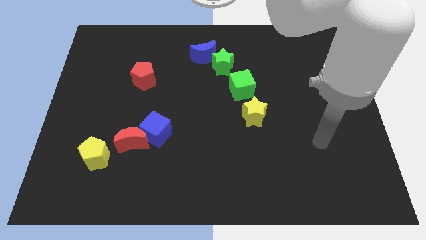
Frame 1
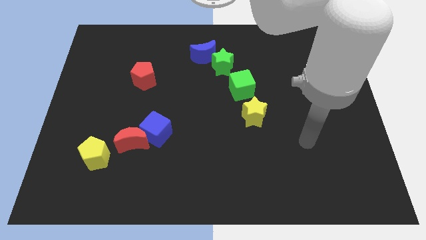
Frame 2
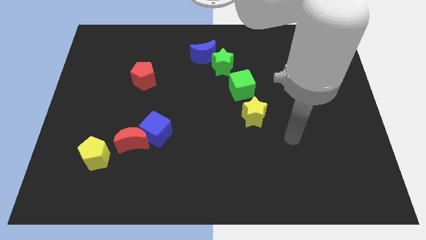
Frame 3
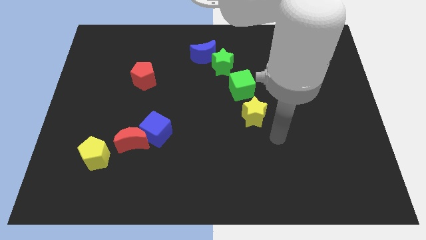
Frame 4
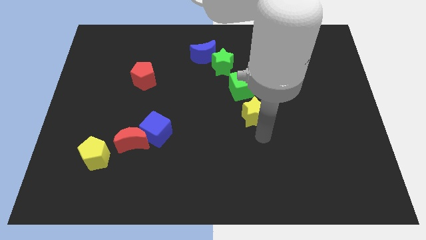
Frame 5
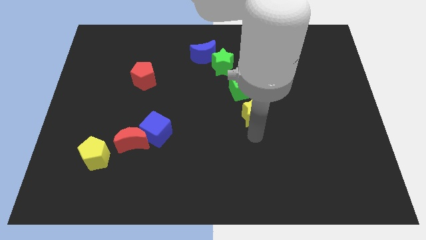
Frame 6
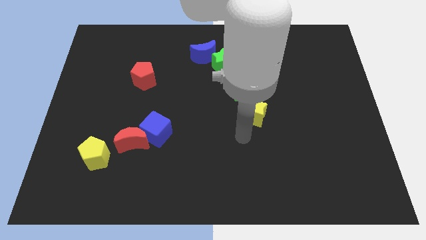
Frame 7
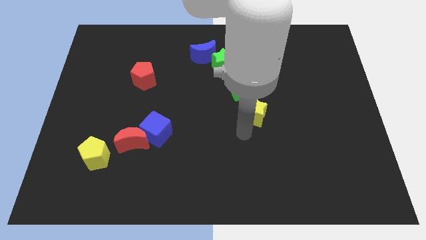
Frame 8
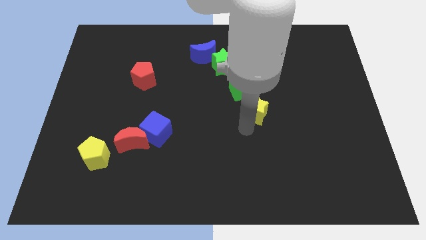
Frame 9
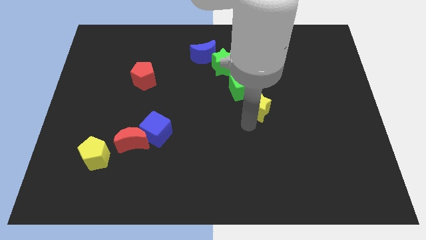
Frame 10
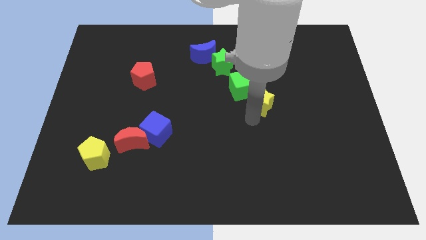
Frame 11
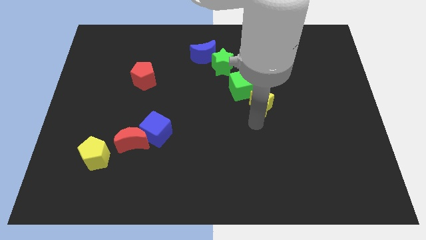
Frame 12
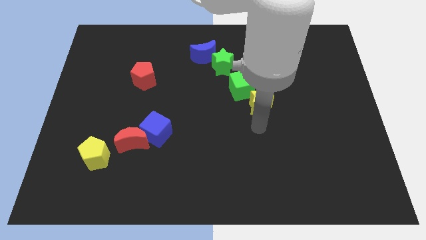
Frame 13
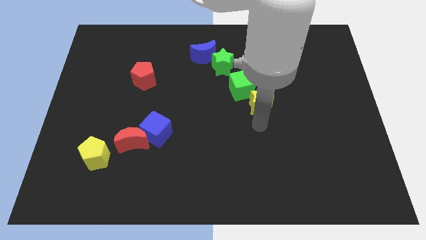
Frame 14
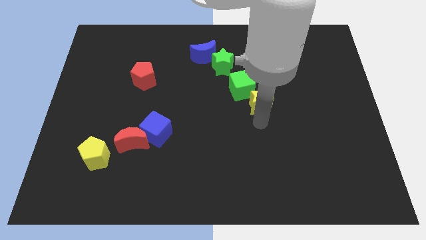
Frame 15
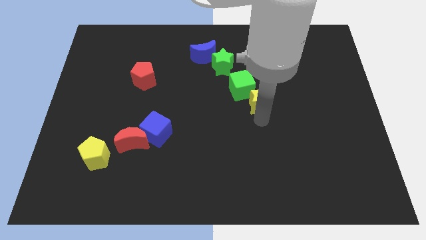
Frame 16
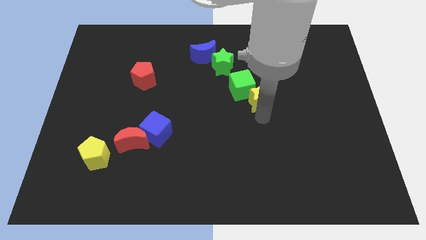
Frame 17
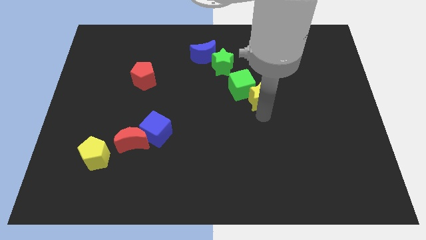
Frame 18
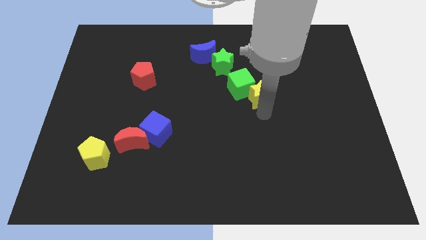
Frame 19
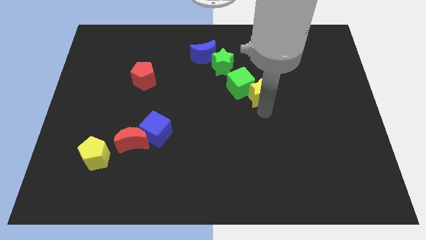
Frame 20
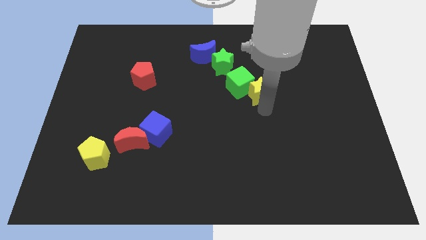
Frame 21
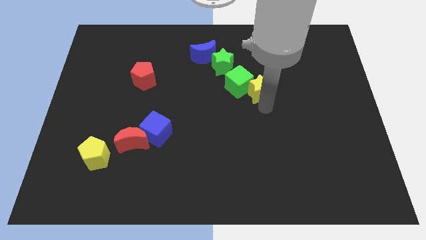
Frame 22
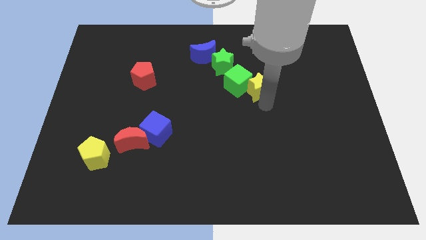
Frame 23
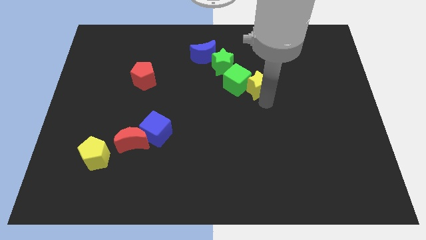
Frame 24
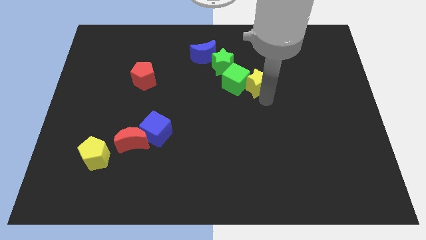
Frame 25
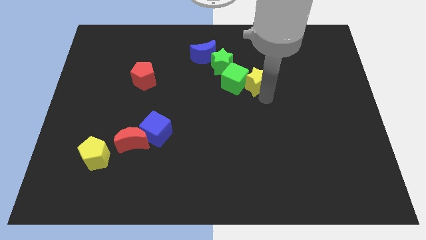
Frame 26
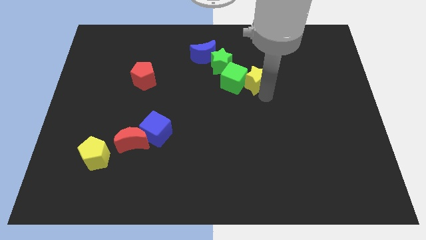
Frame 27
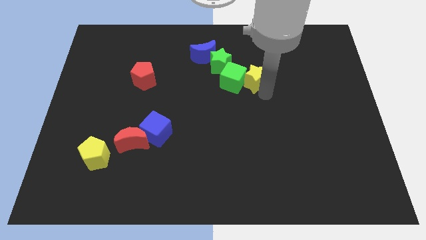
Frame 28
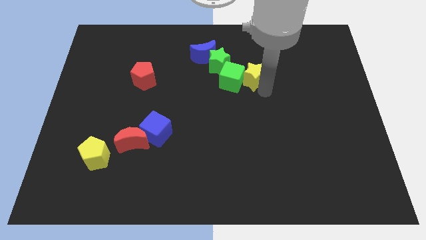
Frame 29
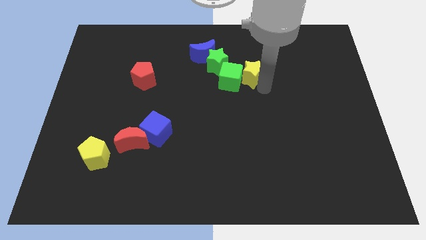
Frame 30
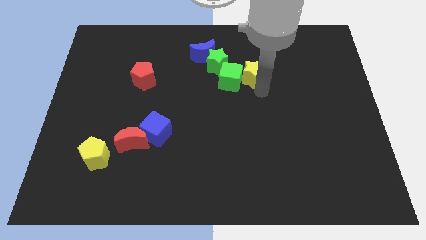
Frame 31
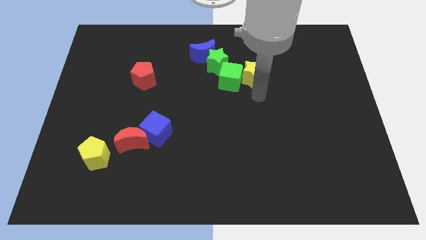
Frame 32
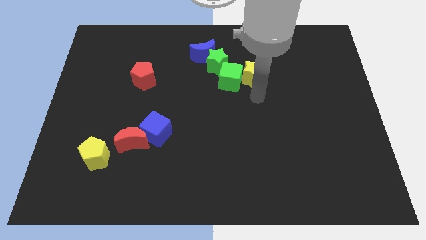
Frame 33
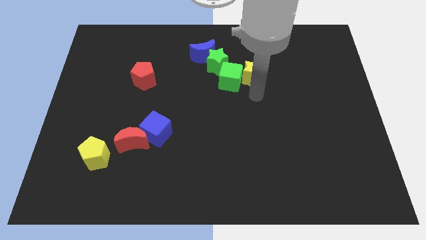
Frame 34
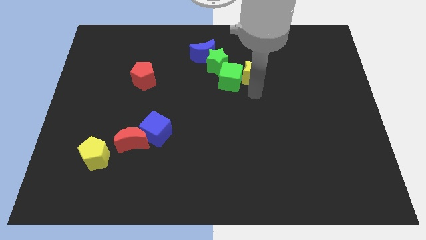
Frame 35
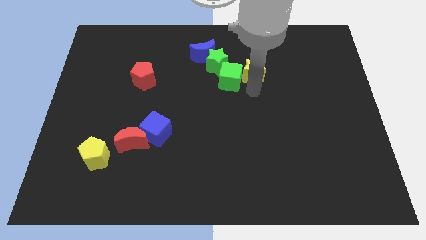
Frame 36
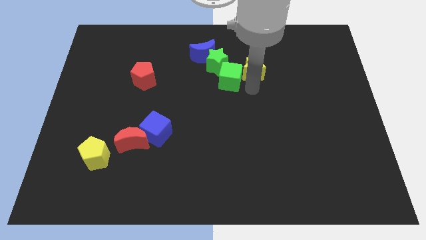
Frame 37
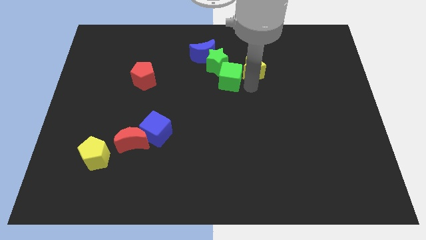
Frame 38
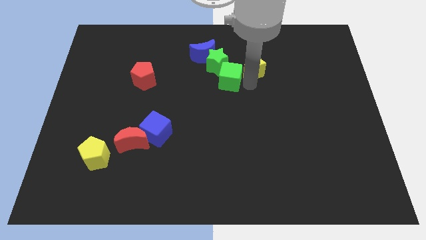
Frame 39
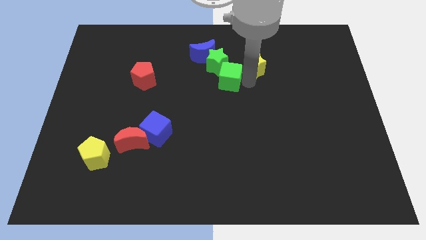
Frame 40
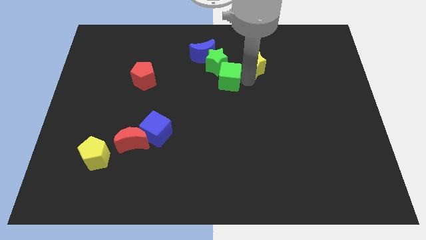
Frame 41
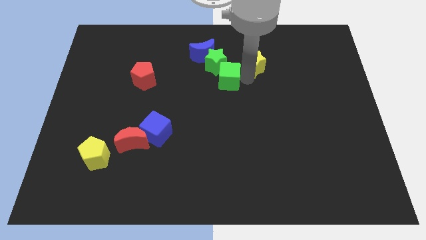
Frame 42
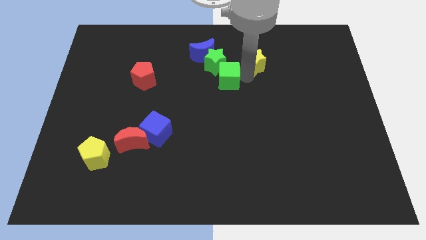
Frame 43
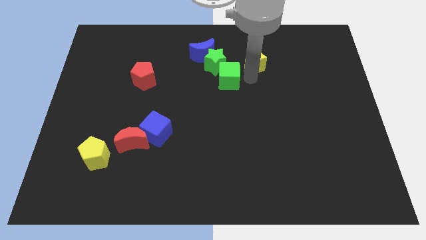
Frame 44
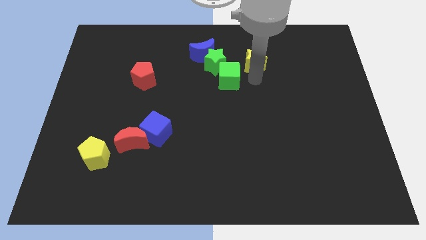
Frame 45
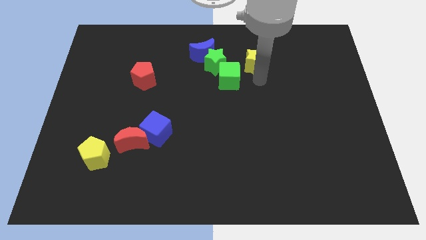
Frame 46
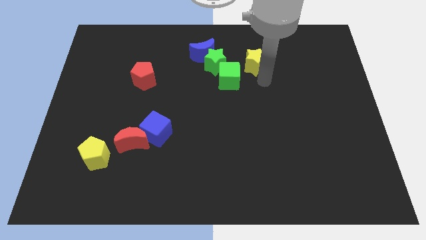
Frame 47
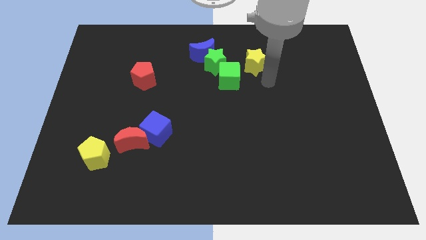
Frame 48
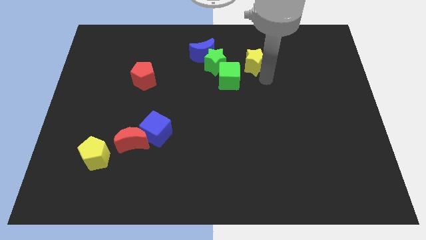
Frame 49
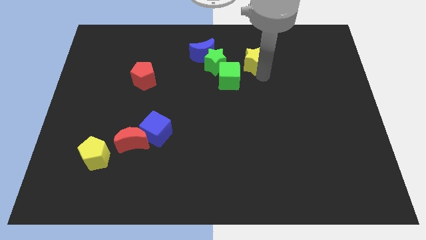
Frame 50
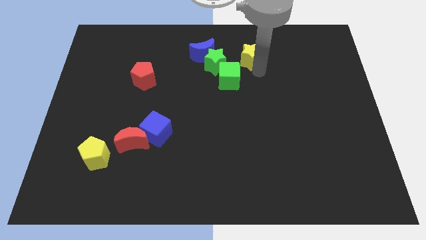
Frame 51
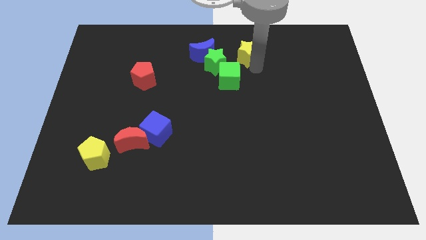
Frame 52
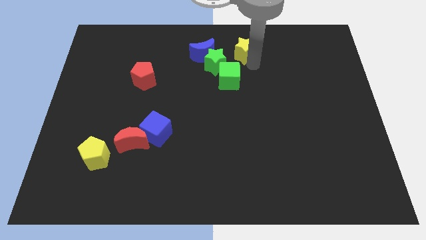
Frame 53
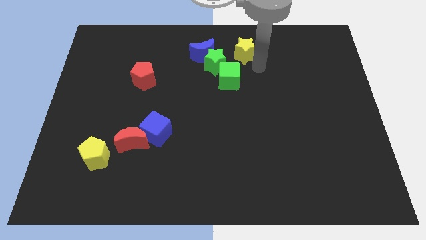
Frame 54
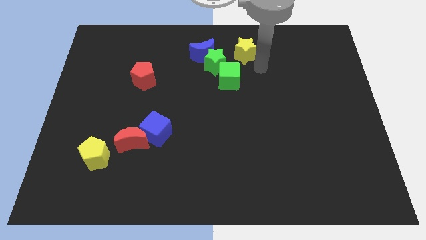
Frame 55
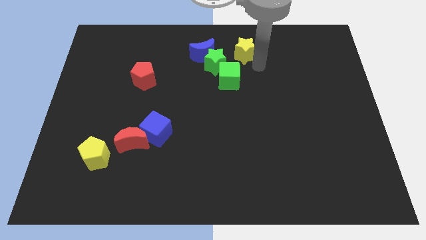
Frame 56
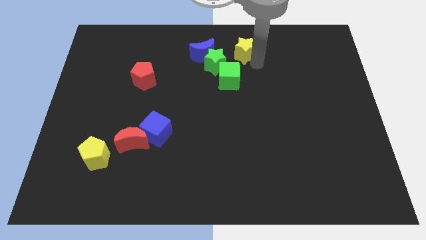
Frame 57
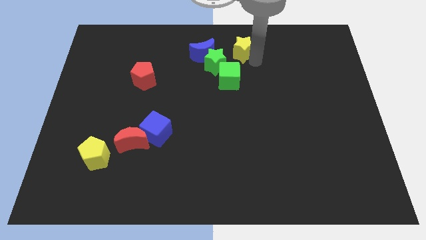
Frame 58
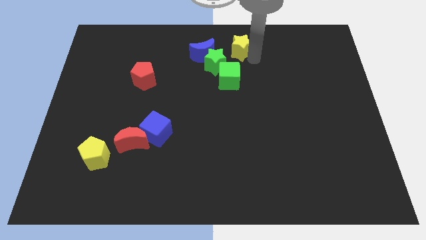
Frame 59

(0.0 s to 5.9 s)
push the yellow star to the top
